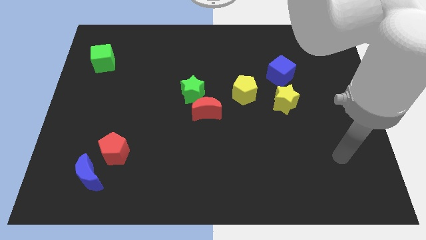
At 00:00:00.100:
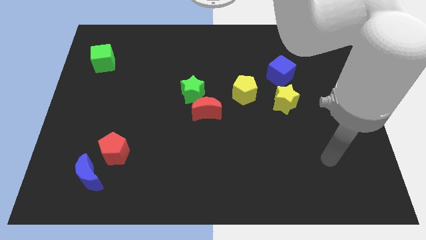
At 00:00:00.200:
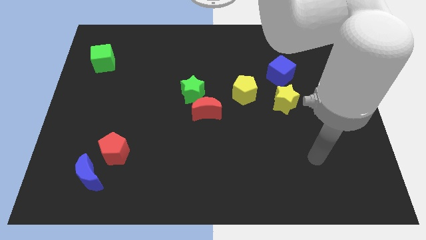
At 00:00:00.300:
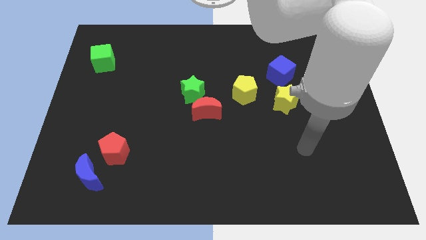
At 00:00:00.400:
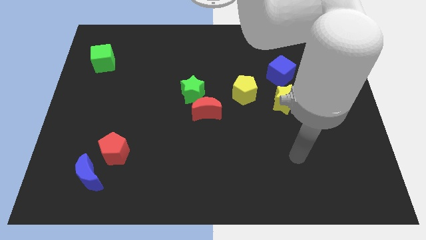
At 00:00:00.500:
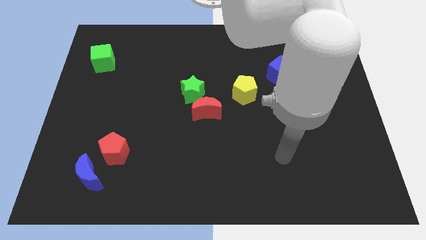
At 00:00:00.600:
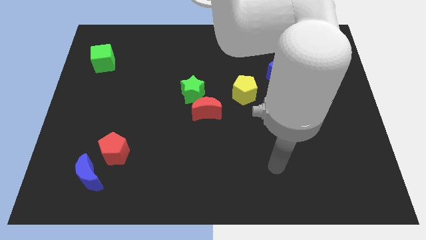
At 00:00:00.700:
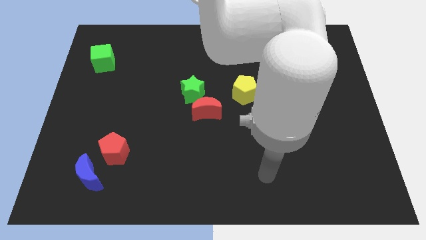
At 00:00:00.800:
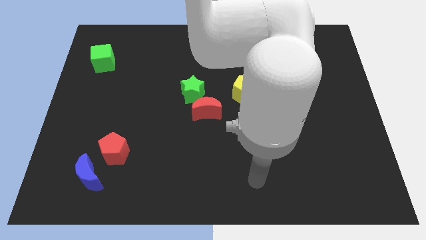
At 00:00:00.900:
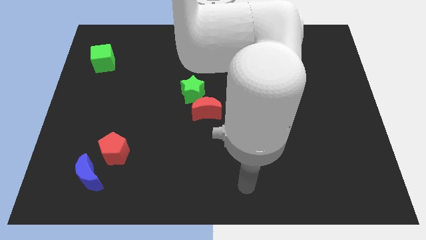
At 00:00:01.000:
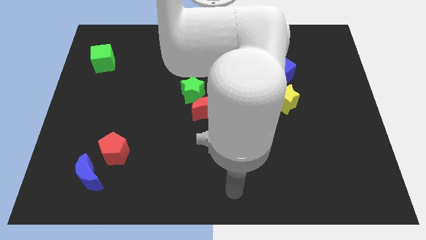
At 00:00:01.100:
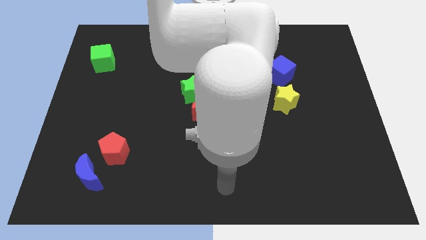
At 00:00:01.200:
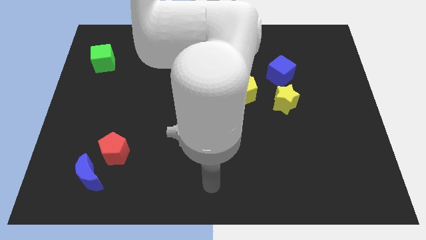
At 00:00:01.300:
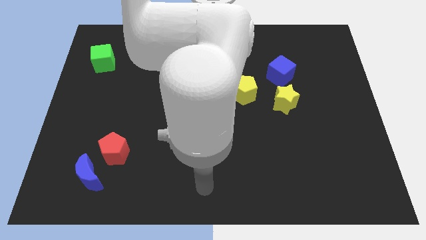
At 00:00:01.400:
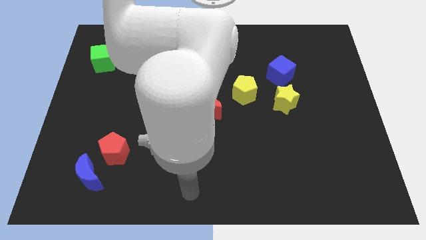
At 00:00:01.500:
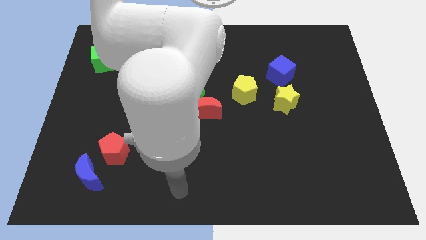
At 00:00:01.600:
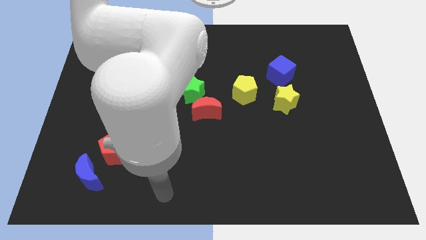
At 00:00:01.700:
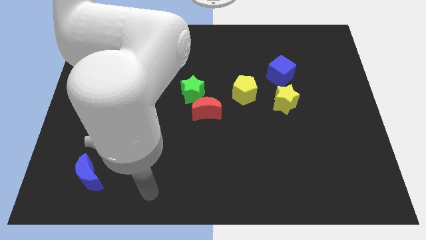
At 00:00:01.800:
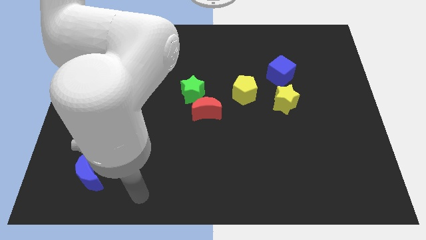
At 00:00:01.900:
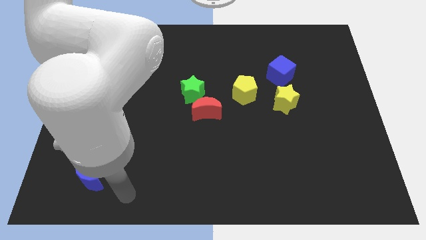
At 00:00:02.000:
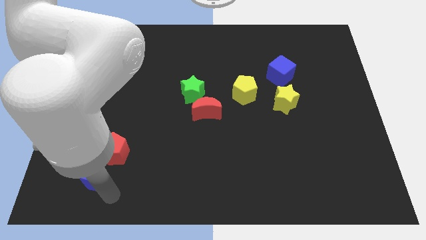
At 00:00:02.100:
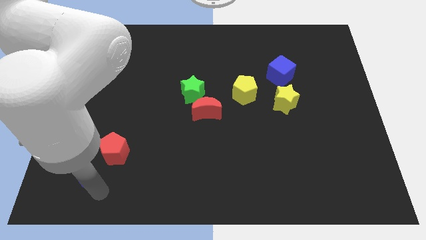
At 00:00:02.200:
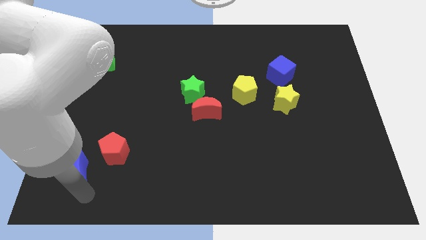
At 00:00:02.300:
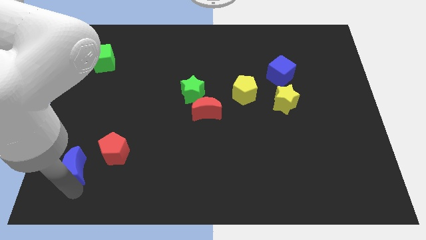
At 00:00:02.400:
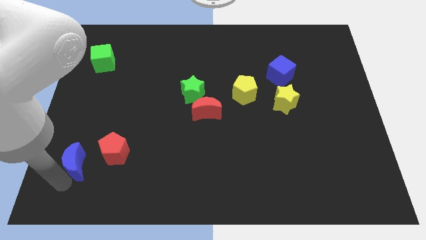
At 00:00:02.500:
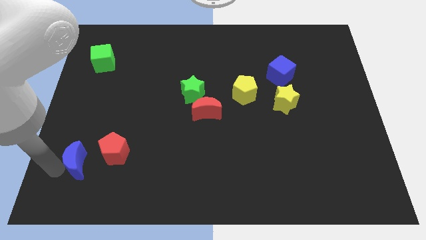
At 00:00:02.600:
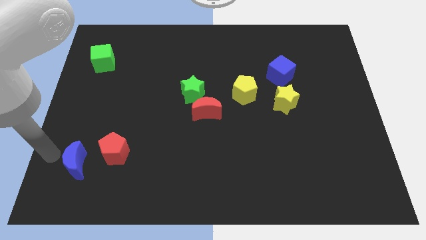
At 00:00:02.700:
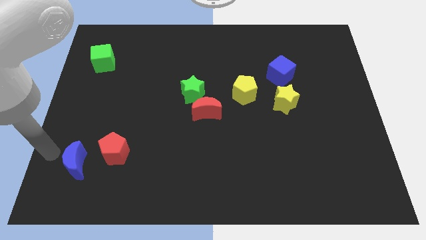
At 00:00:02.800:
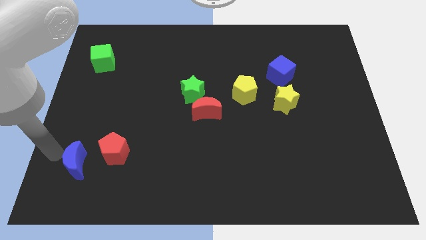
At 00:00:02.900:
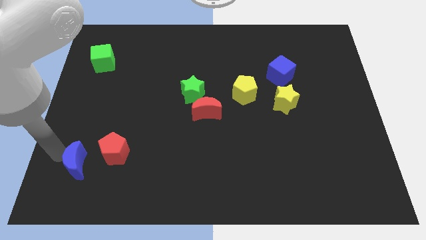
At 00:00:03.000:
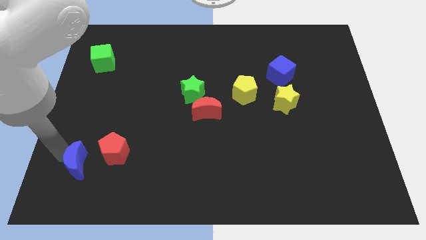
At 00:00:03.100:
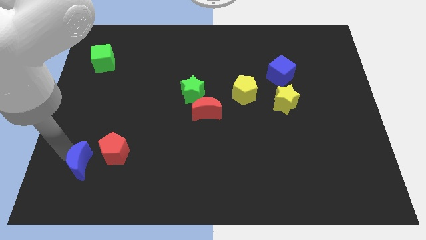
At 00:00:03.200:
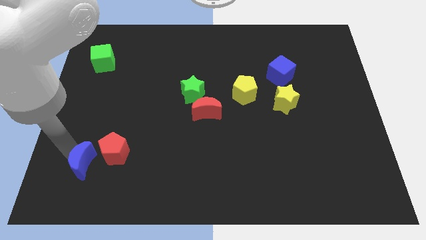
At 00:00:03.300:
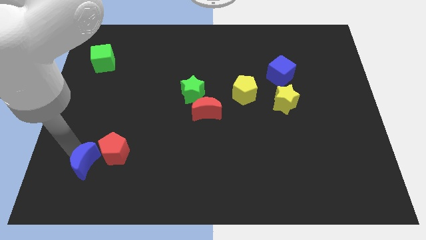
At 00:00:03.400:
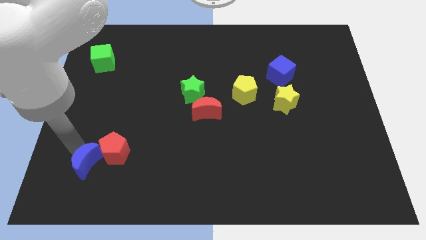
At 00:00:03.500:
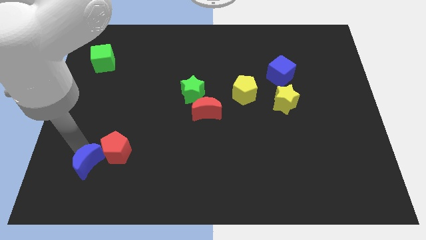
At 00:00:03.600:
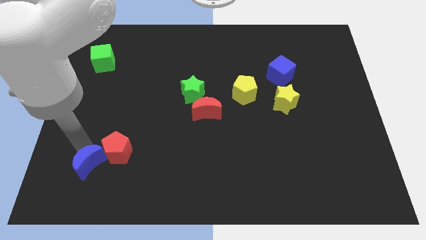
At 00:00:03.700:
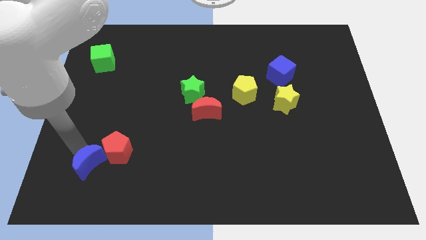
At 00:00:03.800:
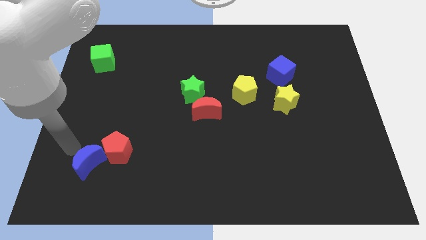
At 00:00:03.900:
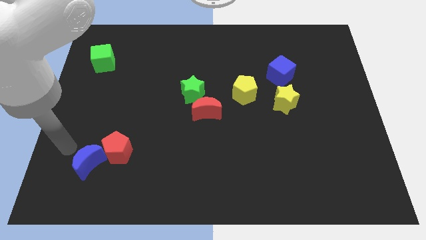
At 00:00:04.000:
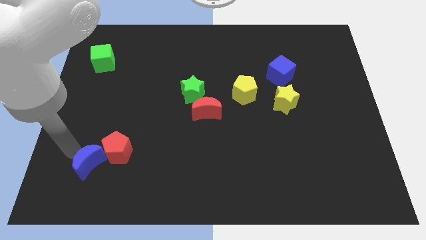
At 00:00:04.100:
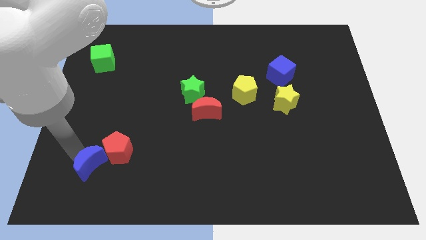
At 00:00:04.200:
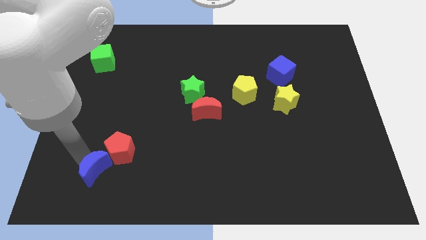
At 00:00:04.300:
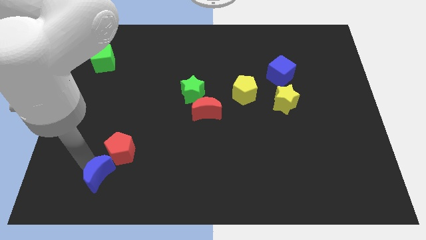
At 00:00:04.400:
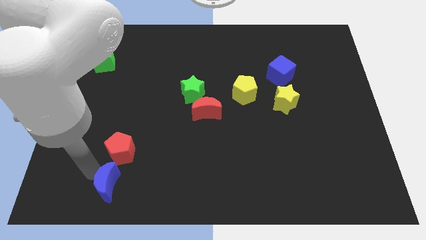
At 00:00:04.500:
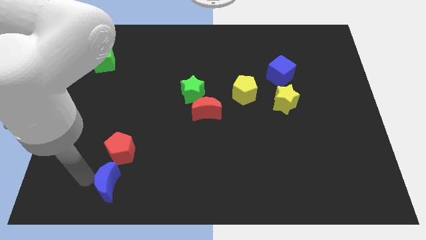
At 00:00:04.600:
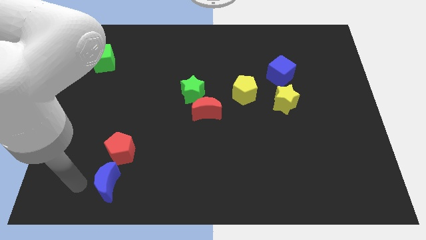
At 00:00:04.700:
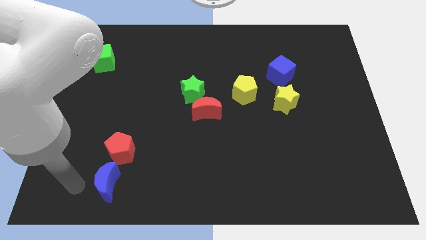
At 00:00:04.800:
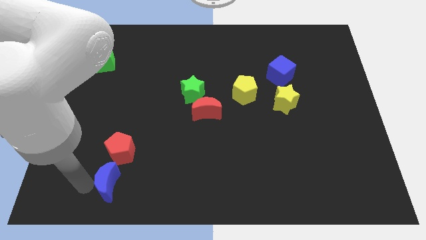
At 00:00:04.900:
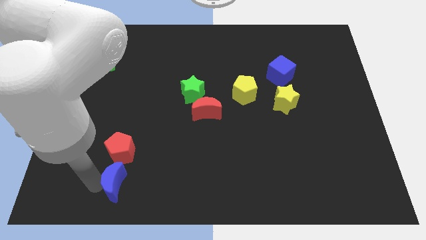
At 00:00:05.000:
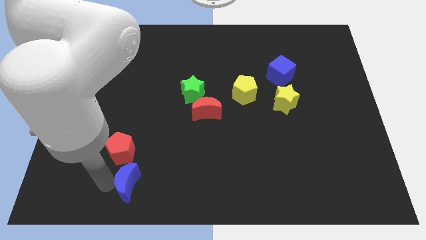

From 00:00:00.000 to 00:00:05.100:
slightly move the blue moon to the right

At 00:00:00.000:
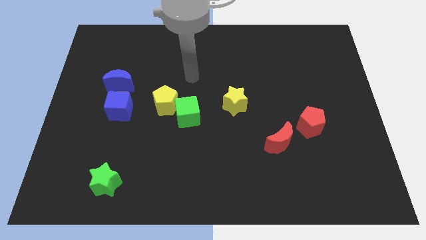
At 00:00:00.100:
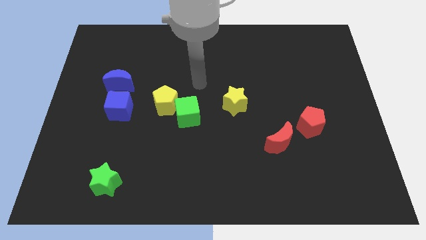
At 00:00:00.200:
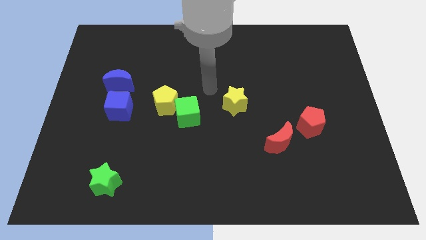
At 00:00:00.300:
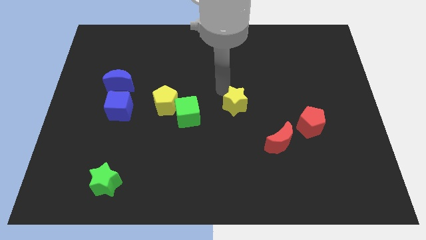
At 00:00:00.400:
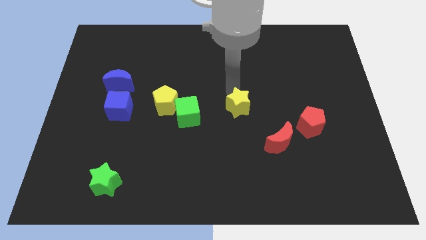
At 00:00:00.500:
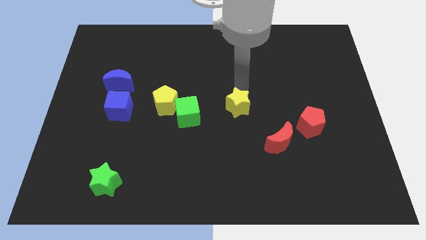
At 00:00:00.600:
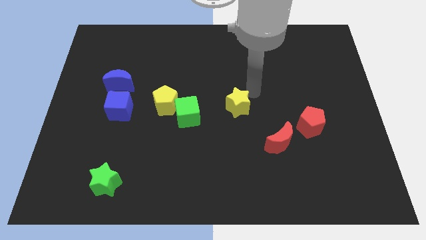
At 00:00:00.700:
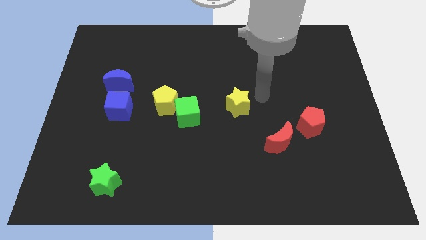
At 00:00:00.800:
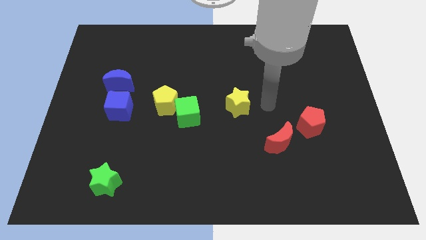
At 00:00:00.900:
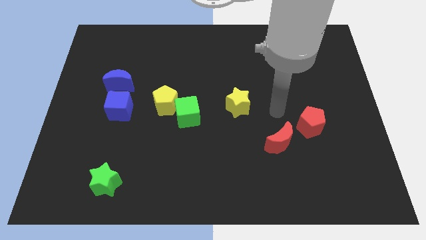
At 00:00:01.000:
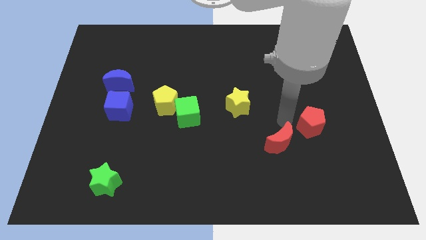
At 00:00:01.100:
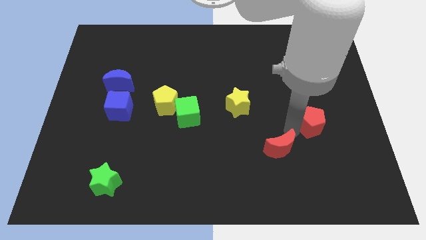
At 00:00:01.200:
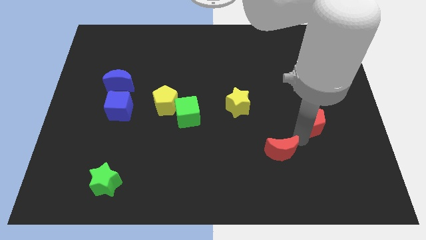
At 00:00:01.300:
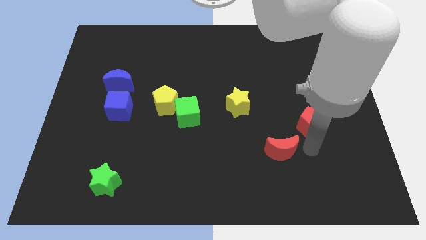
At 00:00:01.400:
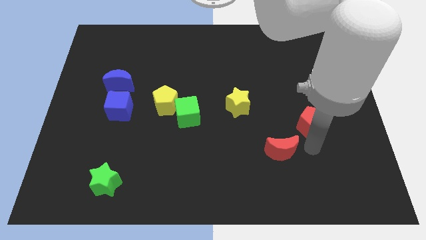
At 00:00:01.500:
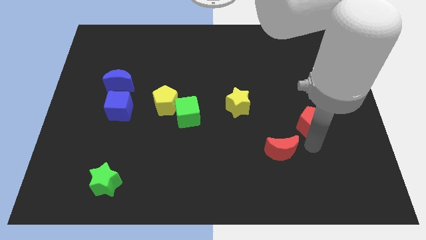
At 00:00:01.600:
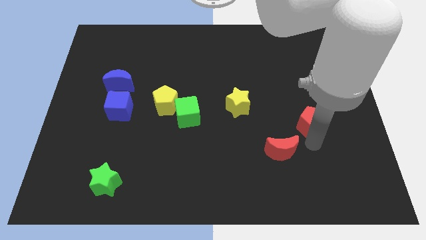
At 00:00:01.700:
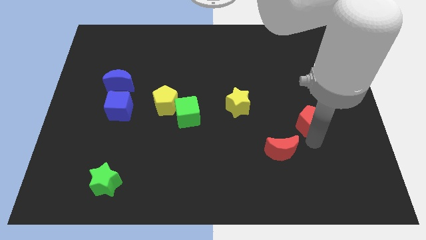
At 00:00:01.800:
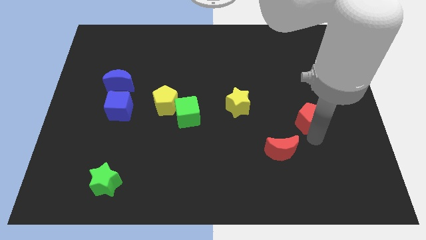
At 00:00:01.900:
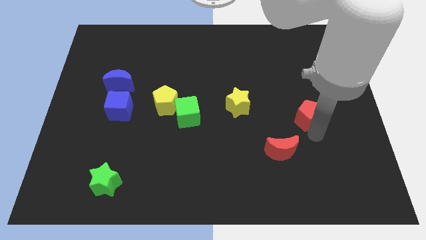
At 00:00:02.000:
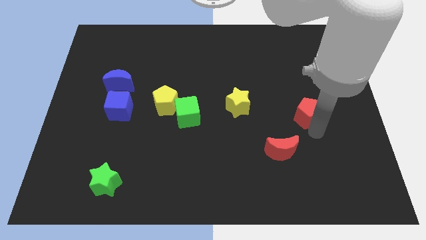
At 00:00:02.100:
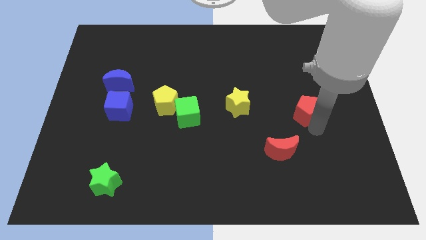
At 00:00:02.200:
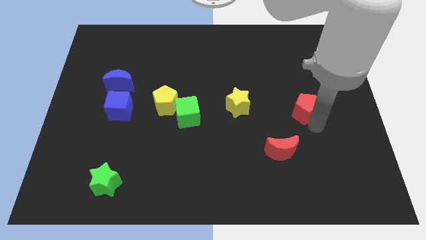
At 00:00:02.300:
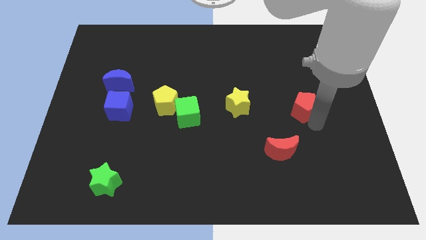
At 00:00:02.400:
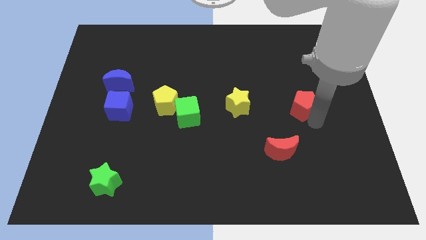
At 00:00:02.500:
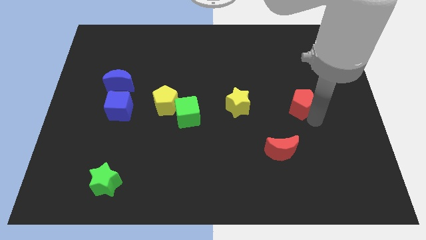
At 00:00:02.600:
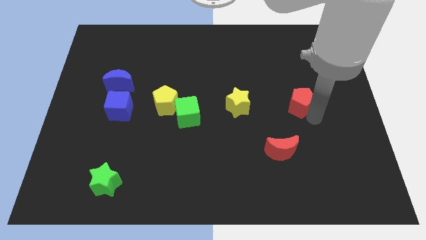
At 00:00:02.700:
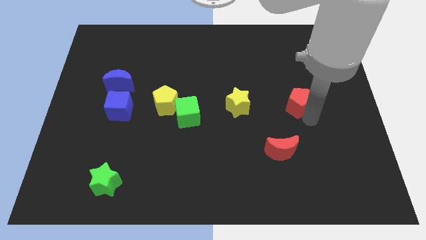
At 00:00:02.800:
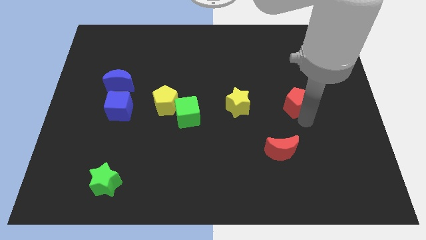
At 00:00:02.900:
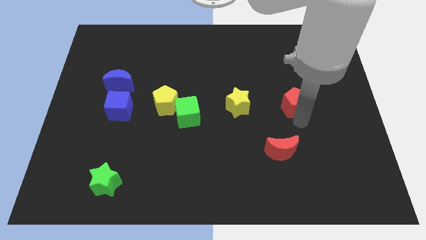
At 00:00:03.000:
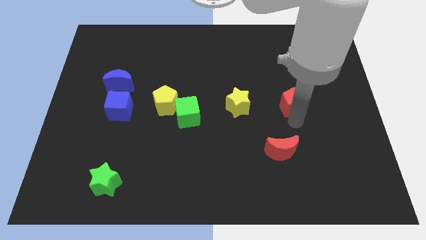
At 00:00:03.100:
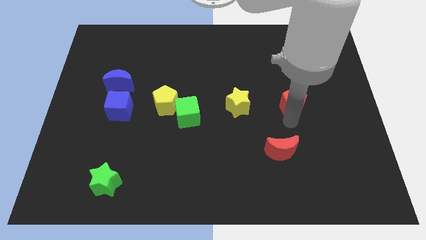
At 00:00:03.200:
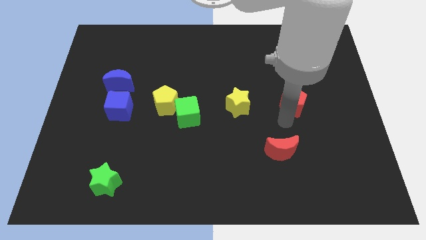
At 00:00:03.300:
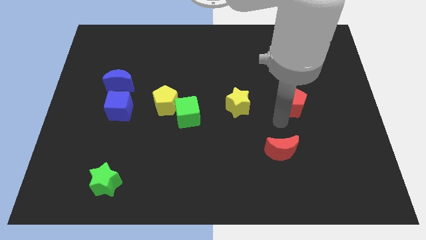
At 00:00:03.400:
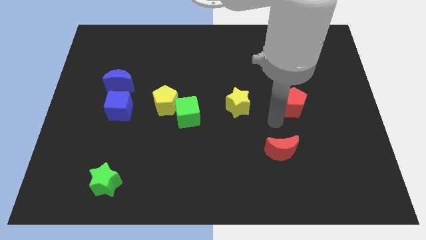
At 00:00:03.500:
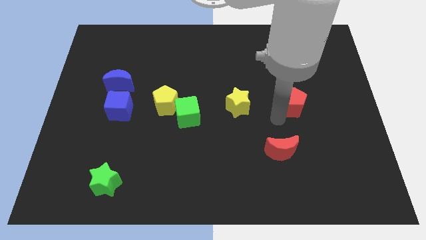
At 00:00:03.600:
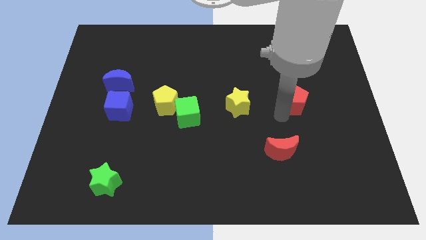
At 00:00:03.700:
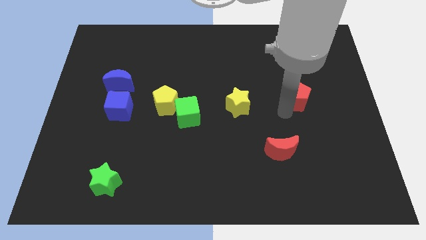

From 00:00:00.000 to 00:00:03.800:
slightly slide the red pentagon up
